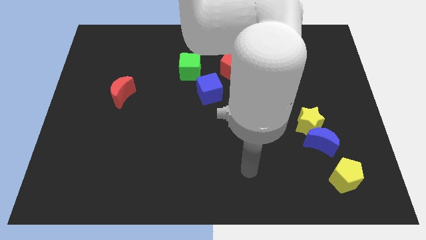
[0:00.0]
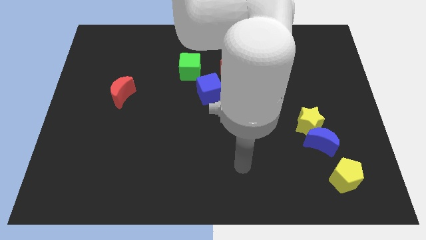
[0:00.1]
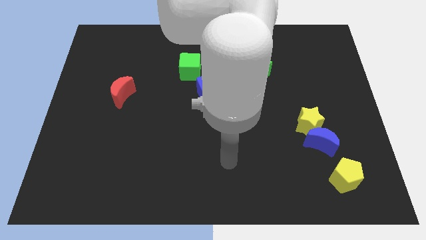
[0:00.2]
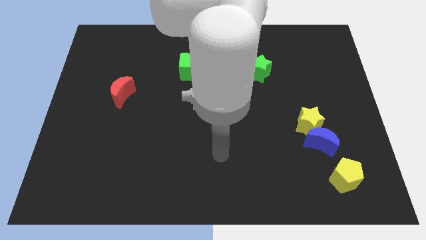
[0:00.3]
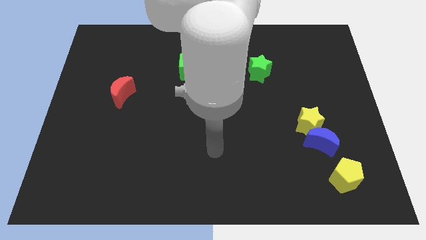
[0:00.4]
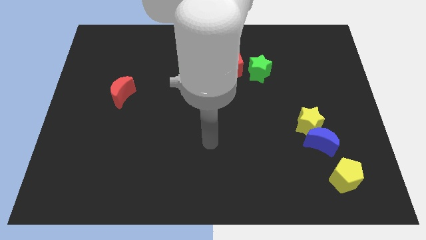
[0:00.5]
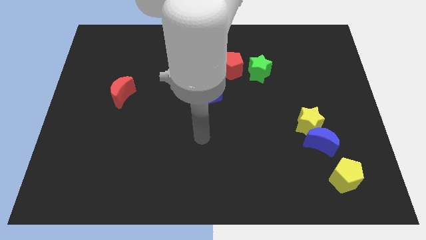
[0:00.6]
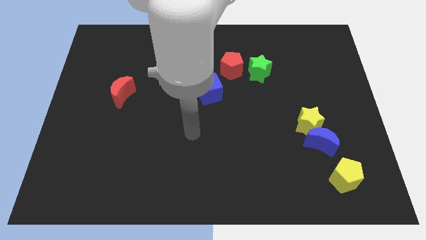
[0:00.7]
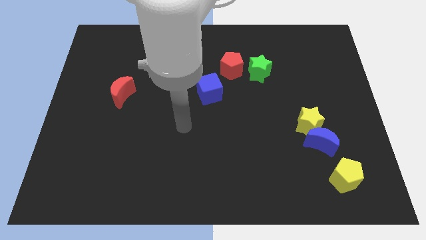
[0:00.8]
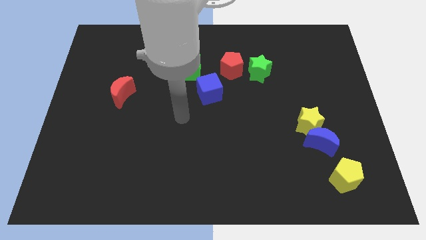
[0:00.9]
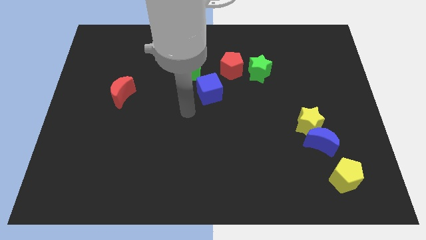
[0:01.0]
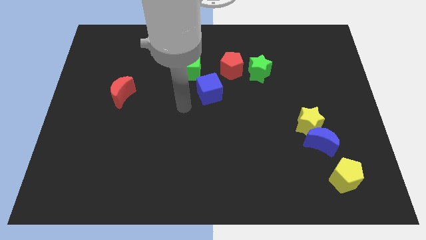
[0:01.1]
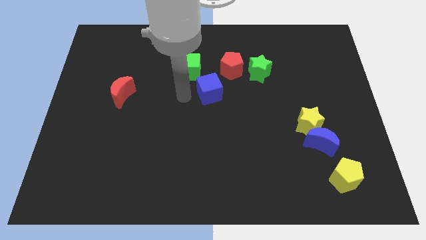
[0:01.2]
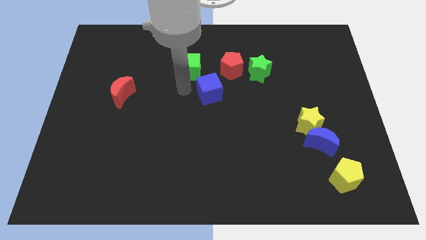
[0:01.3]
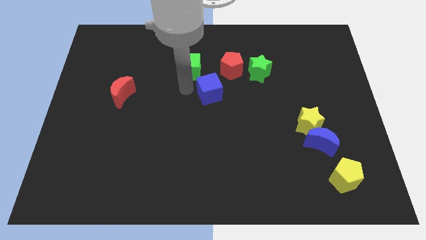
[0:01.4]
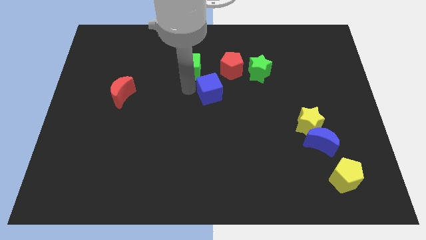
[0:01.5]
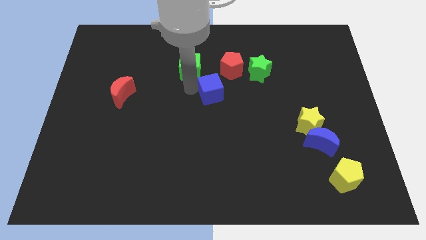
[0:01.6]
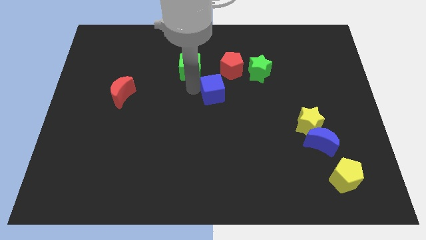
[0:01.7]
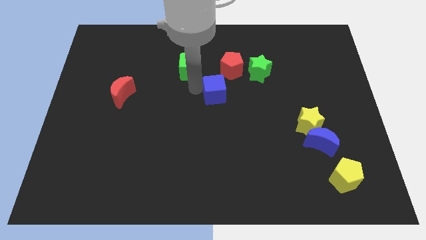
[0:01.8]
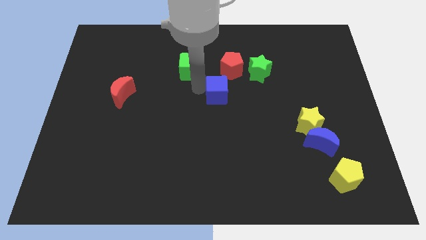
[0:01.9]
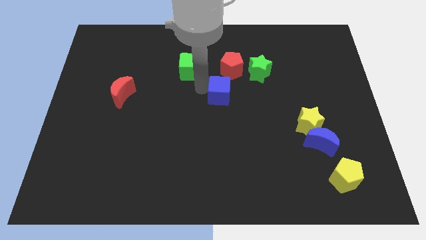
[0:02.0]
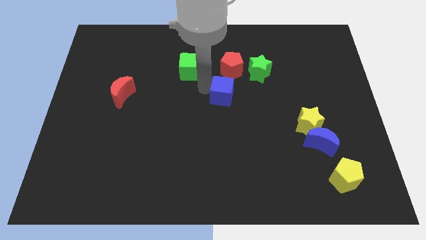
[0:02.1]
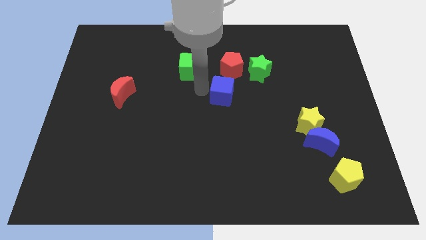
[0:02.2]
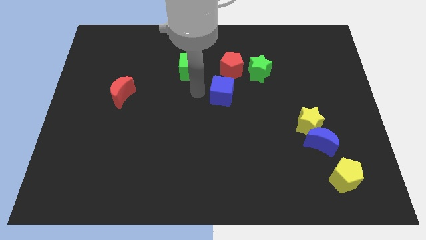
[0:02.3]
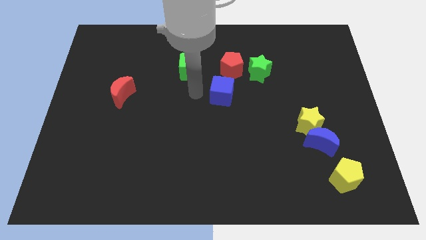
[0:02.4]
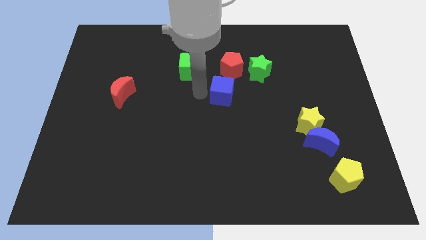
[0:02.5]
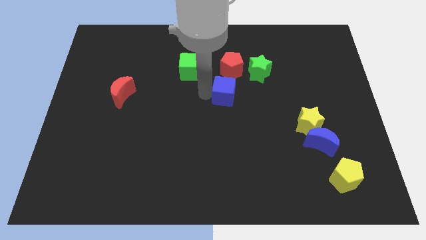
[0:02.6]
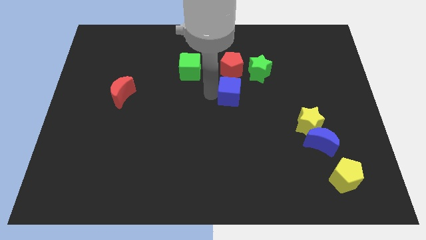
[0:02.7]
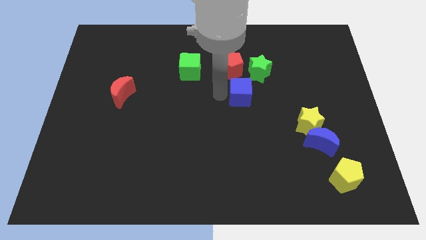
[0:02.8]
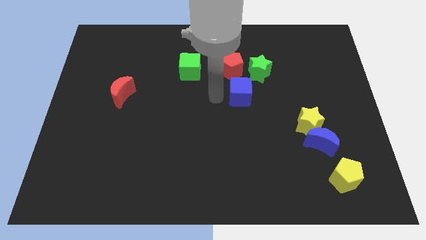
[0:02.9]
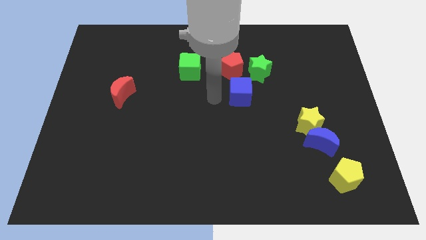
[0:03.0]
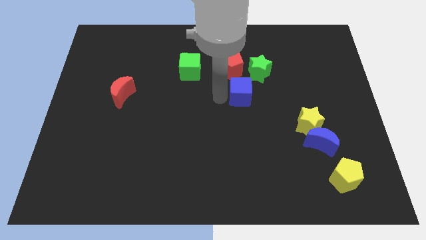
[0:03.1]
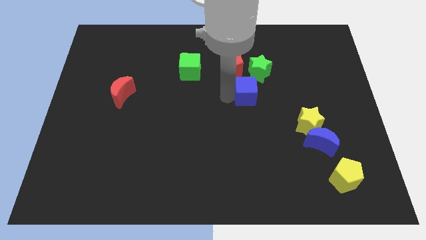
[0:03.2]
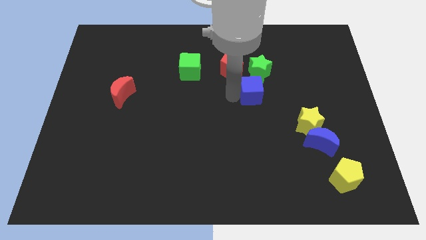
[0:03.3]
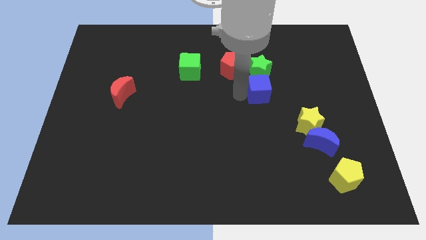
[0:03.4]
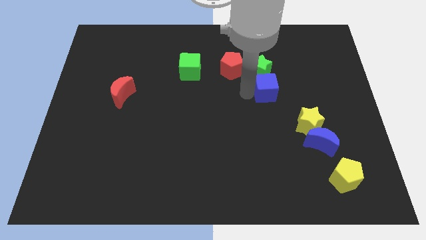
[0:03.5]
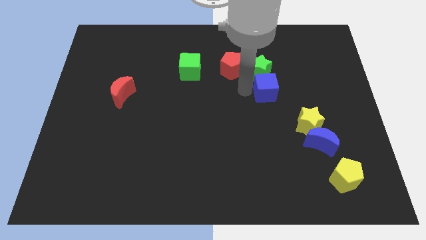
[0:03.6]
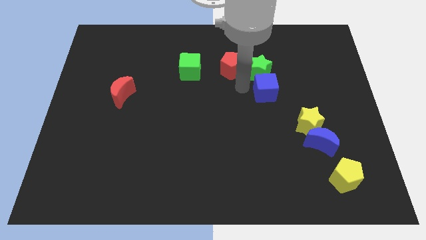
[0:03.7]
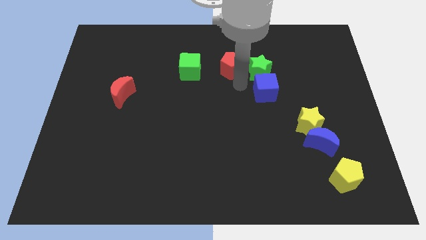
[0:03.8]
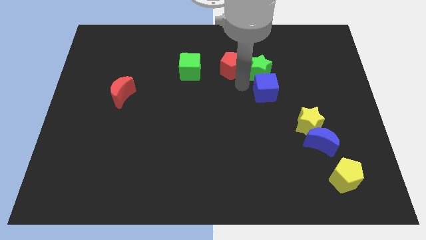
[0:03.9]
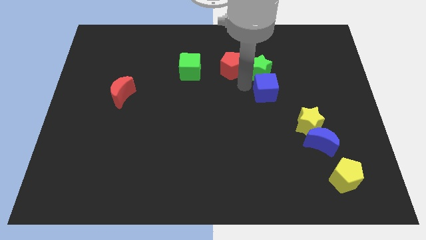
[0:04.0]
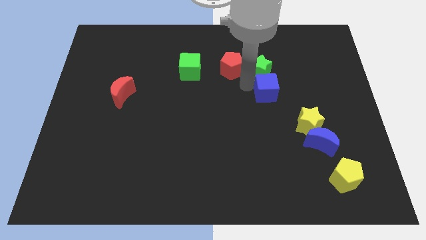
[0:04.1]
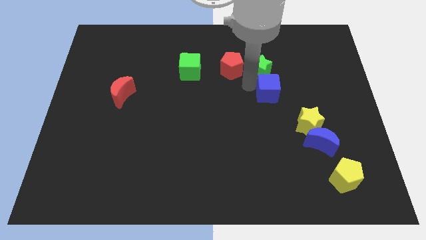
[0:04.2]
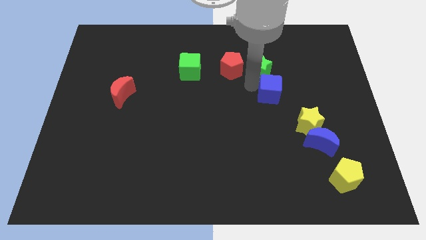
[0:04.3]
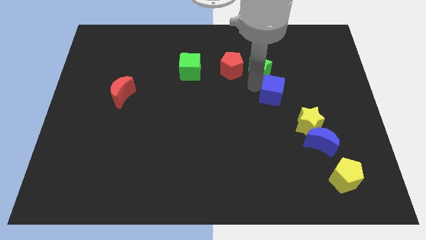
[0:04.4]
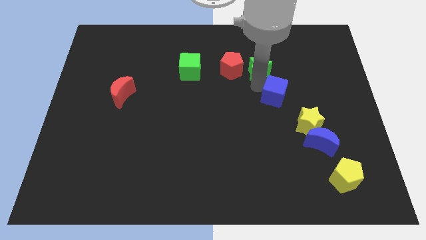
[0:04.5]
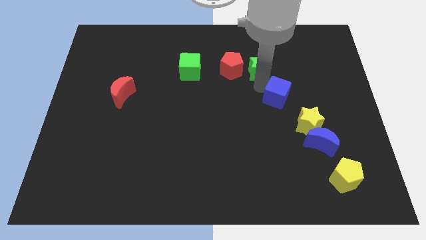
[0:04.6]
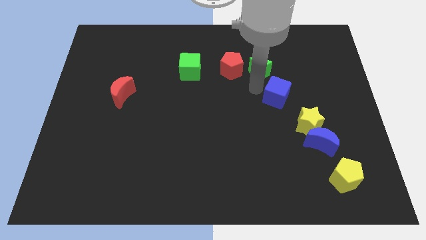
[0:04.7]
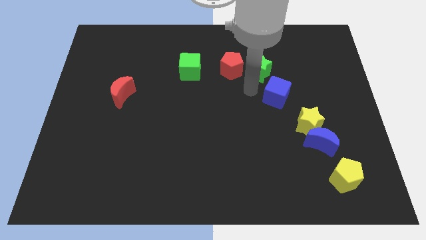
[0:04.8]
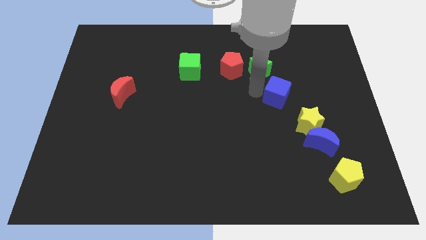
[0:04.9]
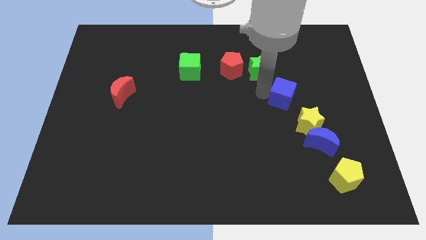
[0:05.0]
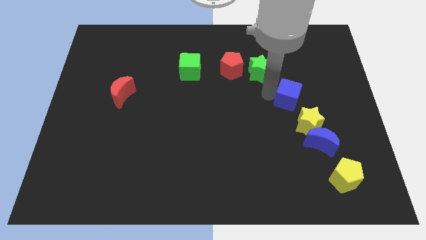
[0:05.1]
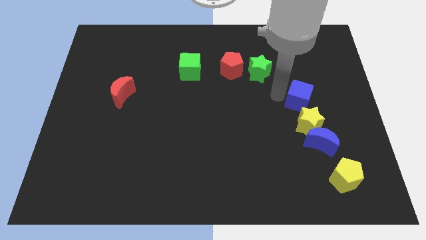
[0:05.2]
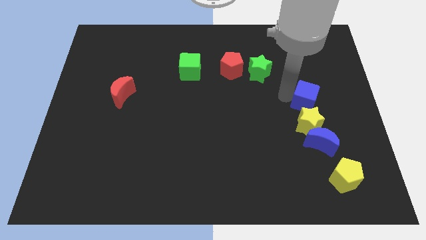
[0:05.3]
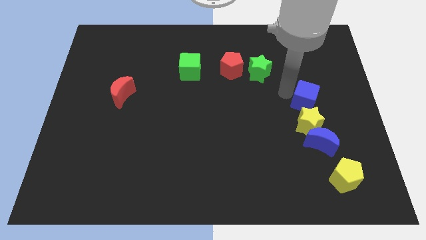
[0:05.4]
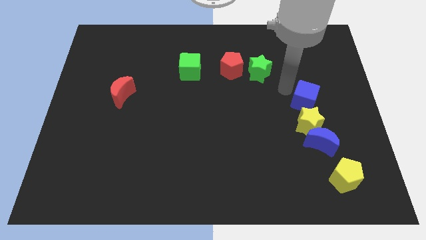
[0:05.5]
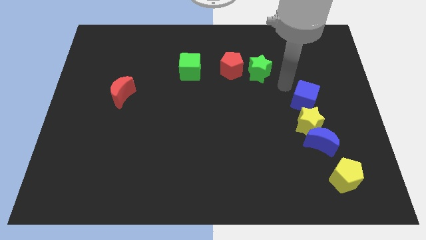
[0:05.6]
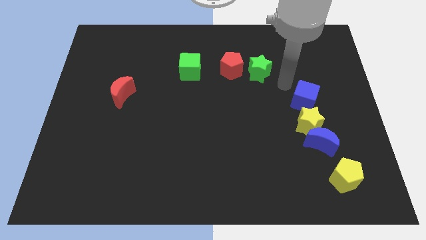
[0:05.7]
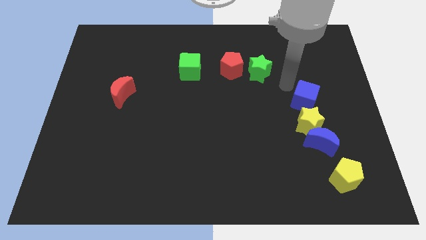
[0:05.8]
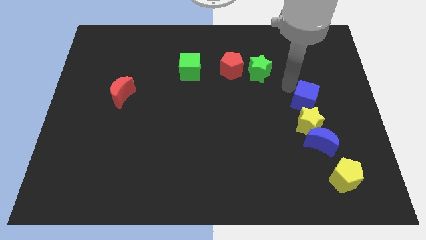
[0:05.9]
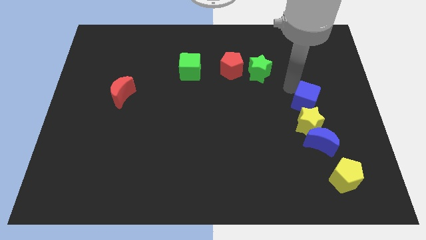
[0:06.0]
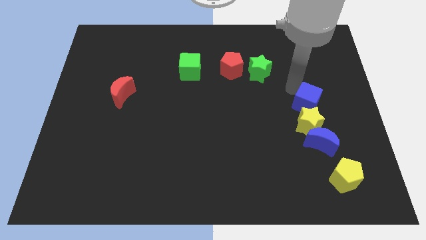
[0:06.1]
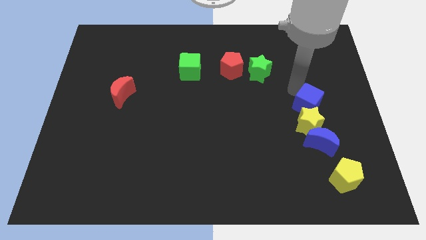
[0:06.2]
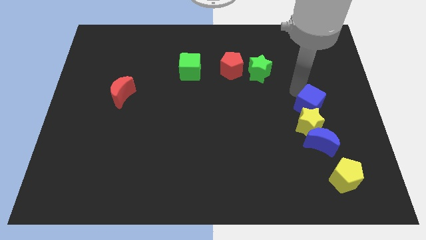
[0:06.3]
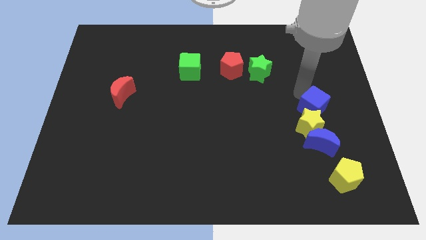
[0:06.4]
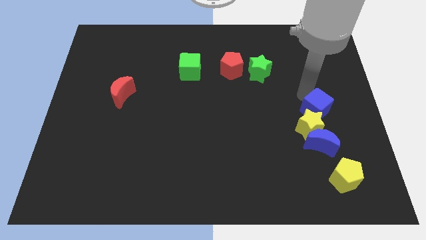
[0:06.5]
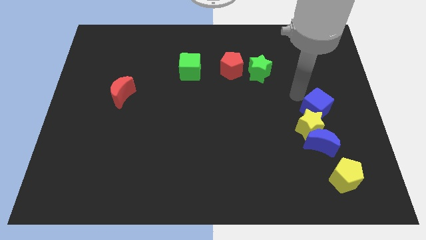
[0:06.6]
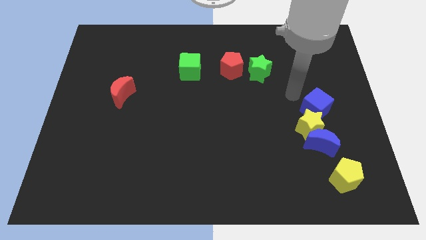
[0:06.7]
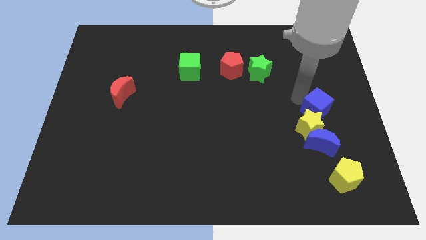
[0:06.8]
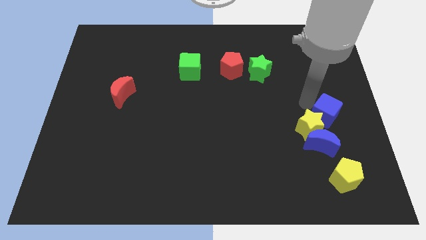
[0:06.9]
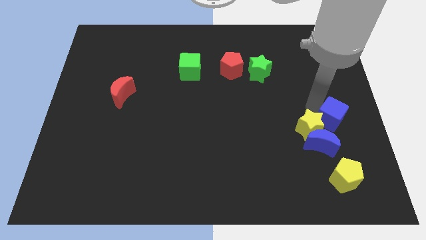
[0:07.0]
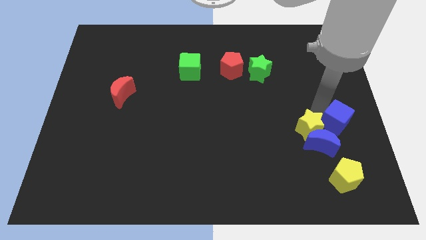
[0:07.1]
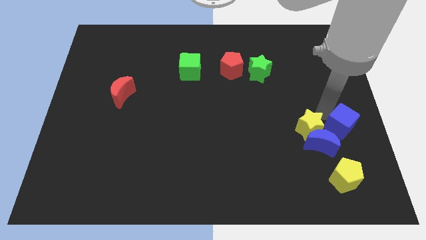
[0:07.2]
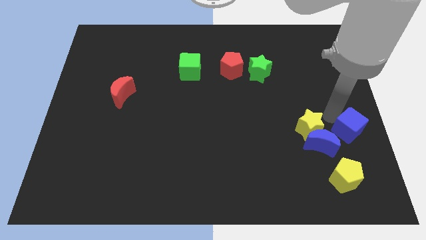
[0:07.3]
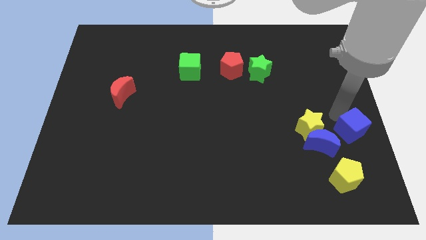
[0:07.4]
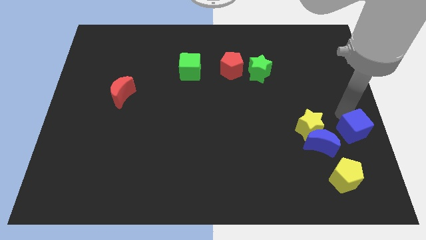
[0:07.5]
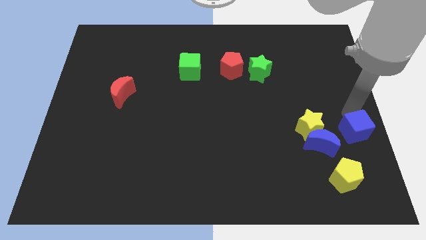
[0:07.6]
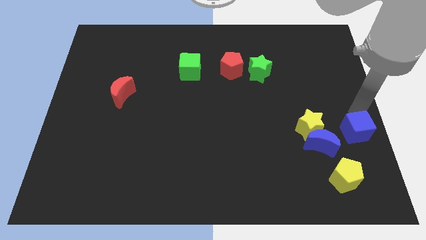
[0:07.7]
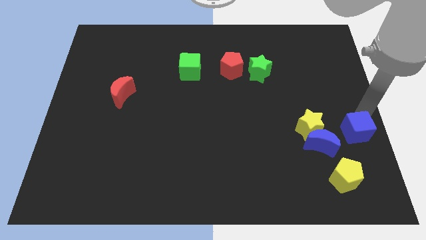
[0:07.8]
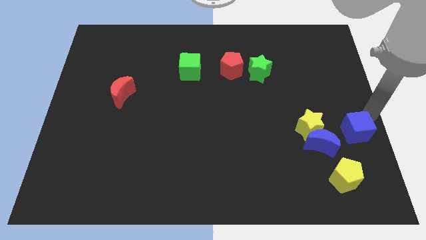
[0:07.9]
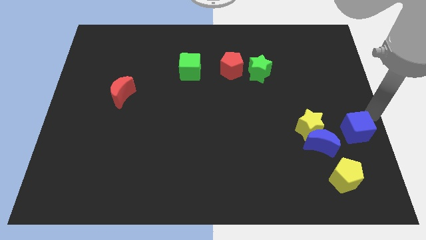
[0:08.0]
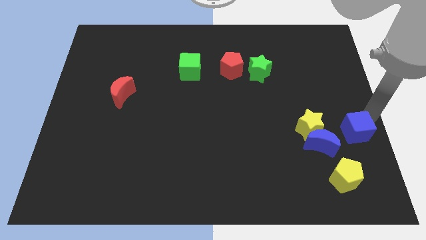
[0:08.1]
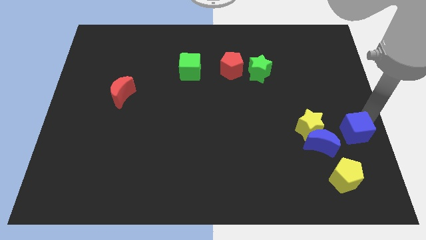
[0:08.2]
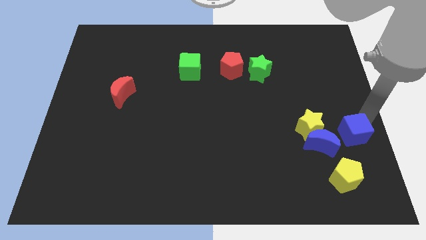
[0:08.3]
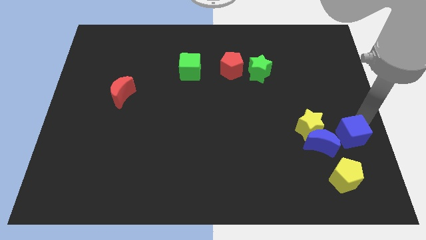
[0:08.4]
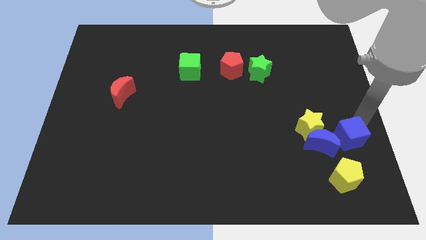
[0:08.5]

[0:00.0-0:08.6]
slide the blue cube diagonally down and to the right of the yellow star
